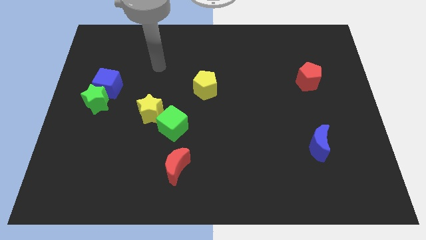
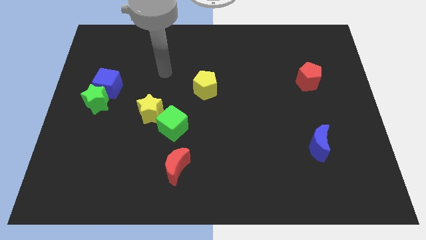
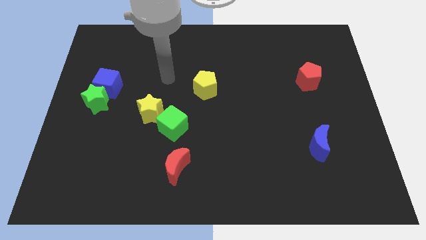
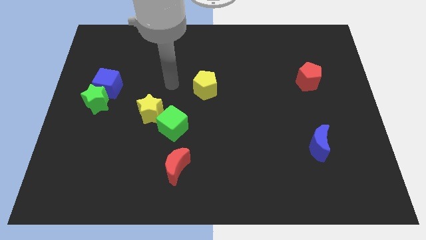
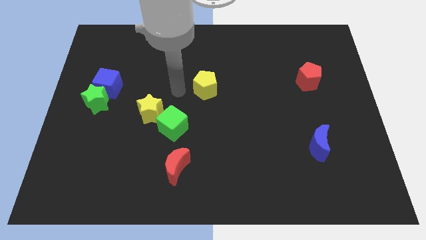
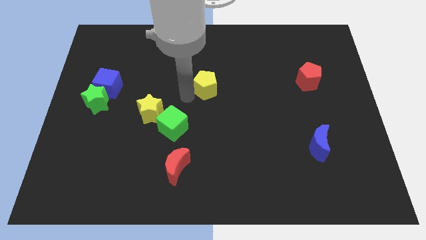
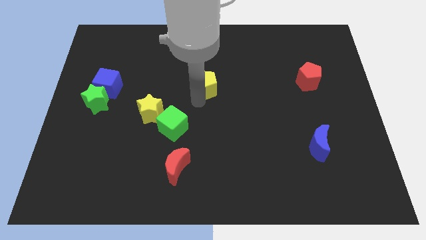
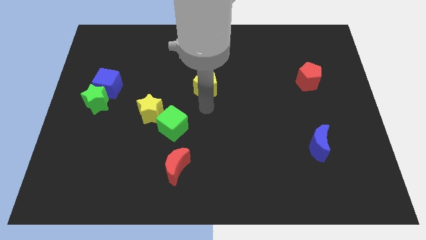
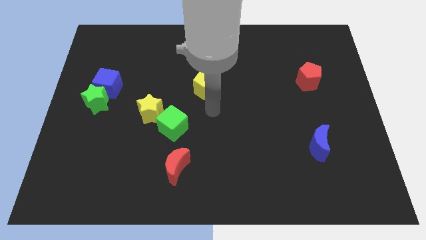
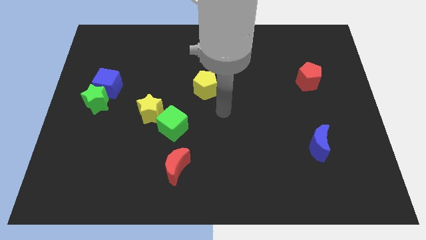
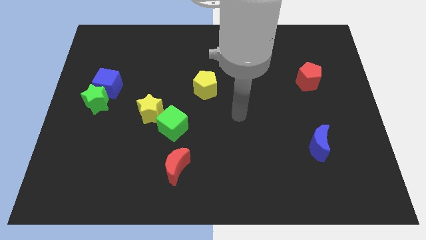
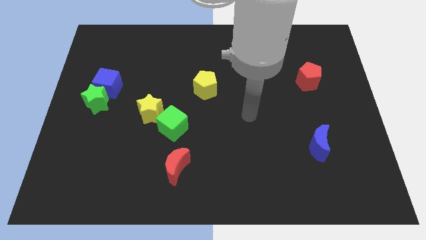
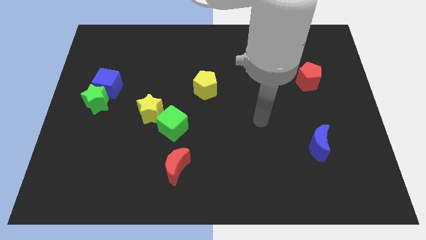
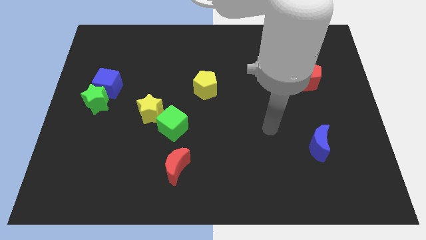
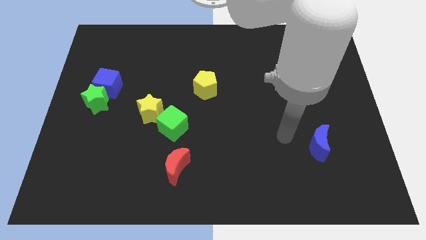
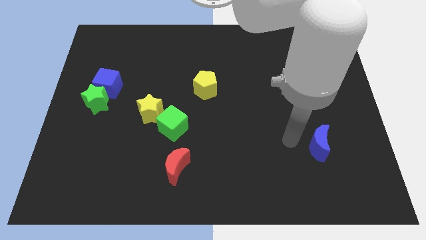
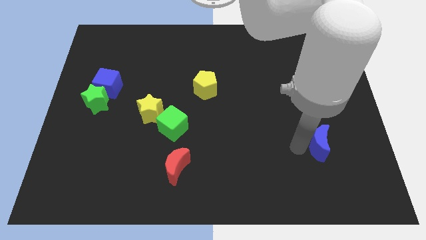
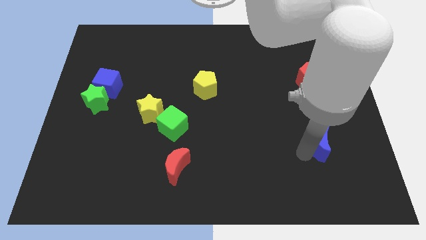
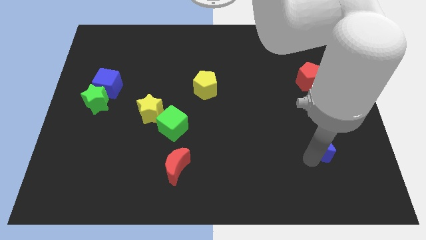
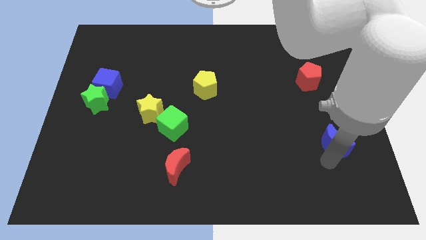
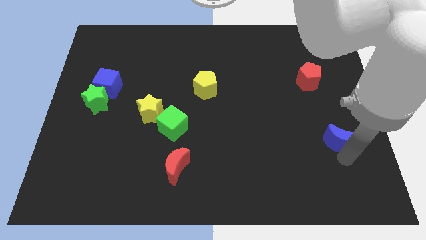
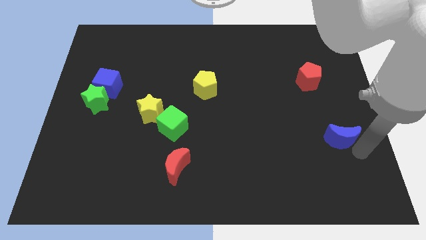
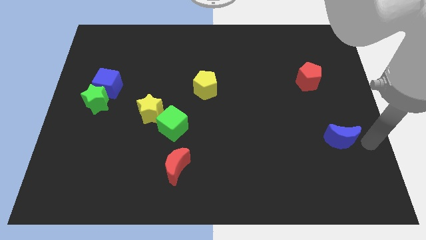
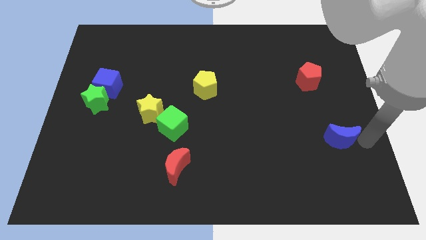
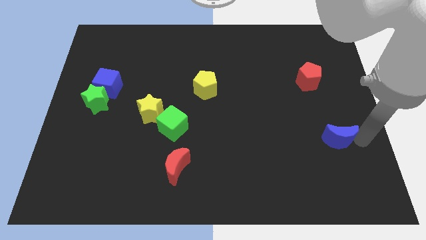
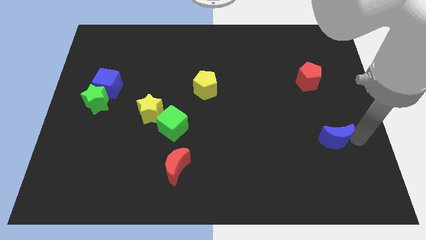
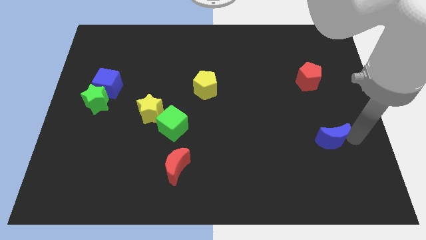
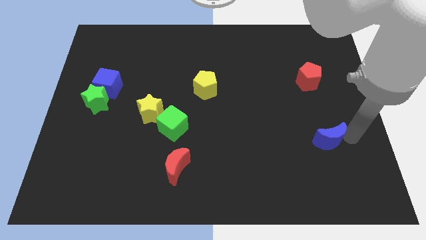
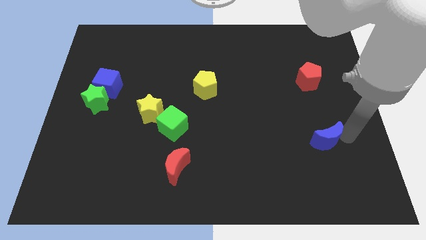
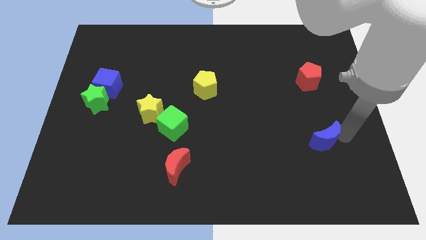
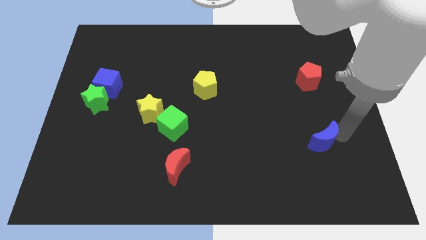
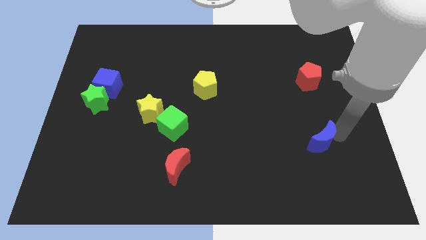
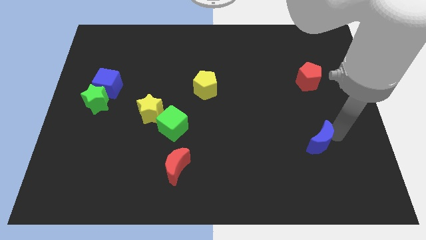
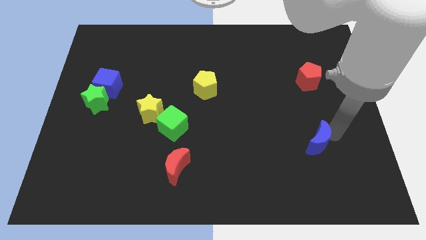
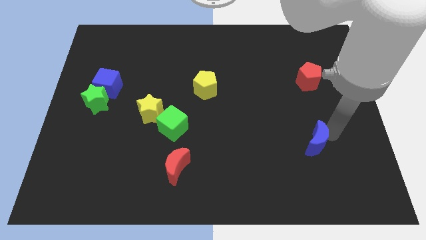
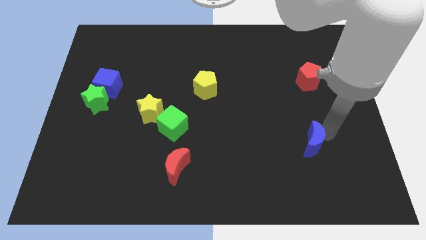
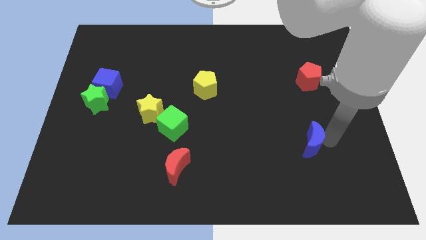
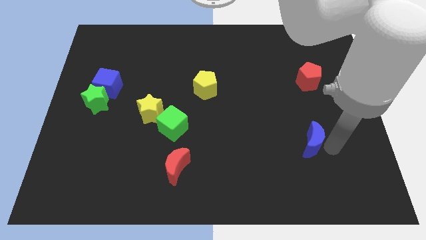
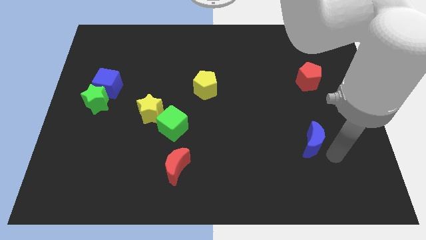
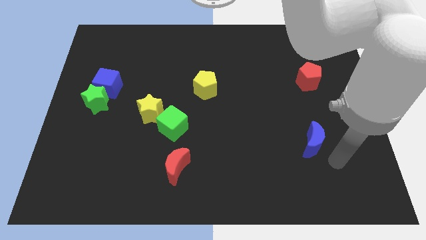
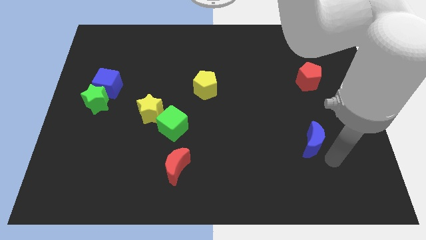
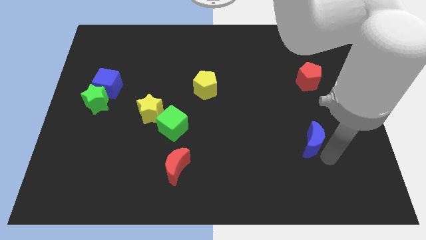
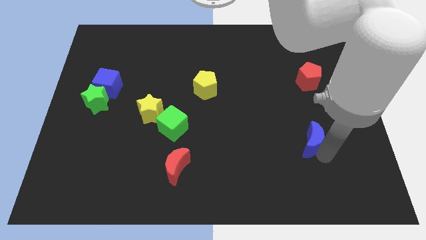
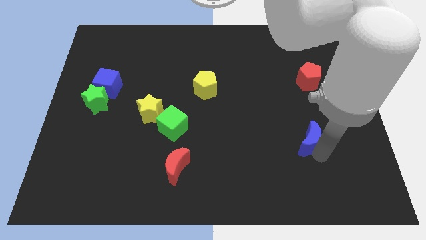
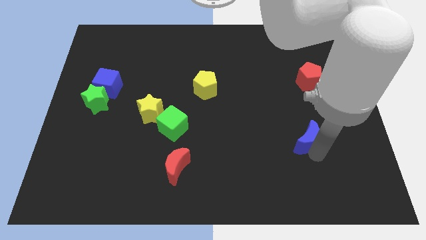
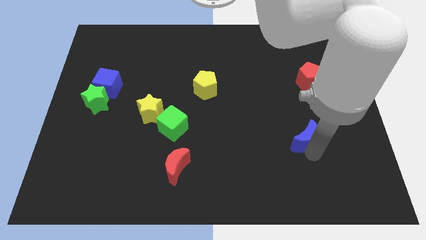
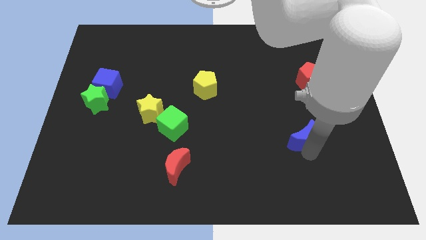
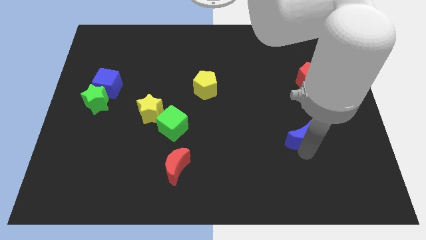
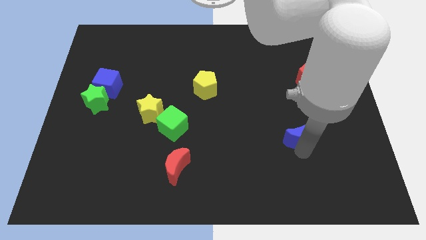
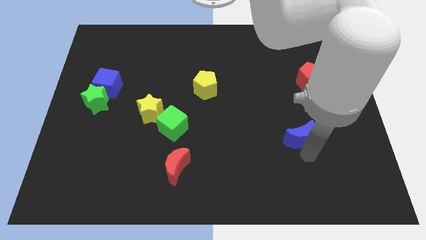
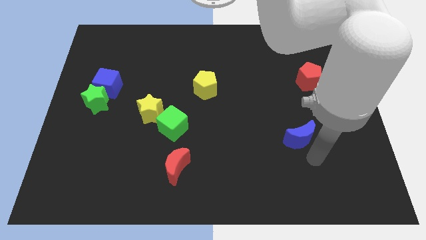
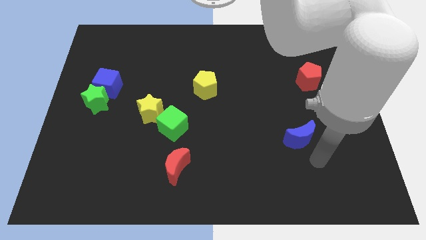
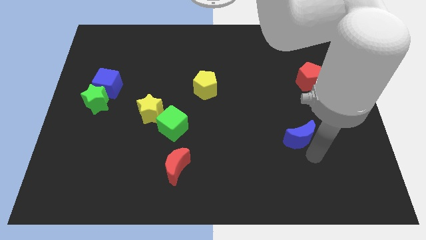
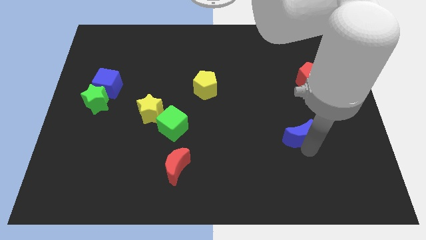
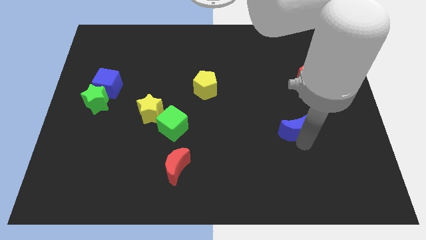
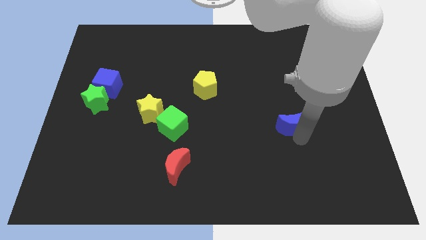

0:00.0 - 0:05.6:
push the blue moon upwards and to the left a little bit

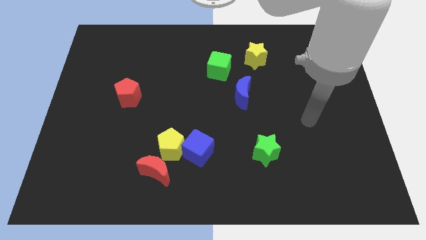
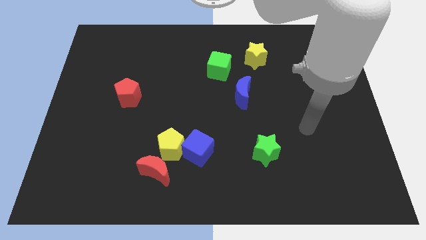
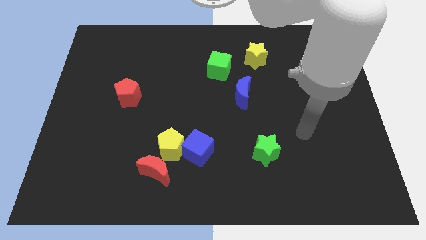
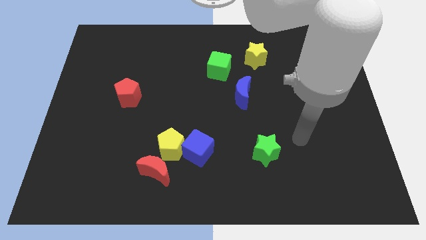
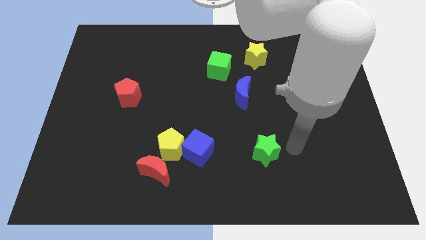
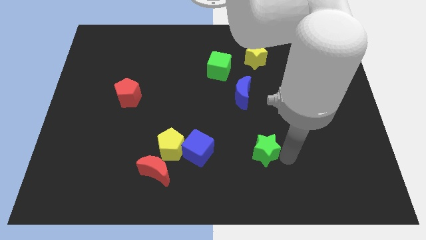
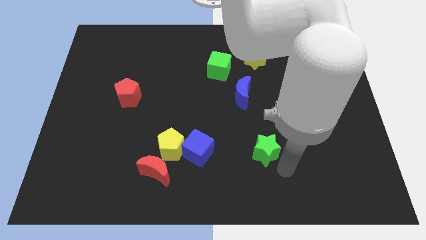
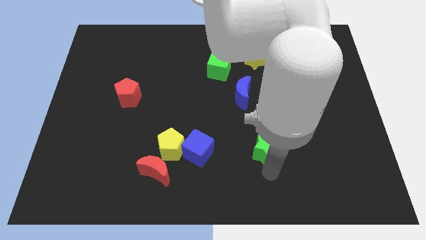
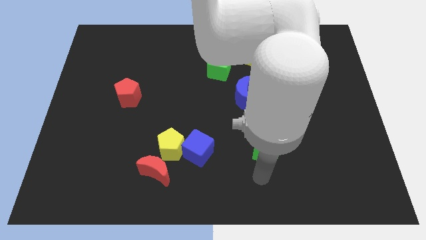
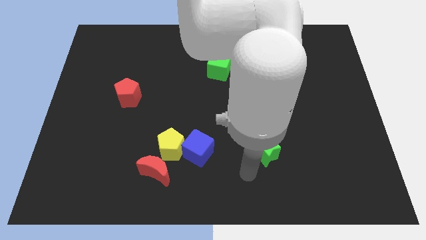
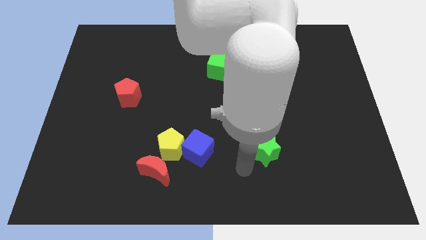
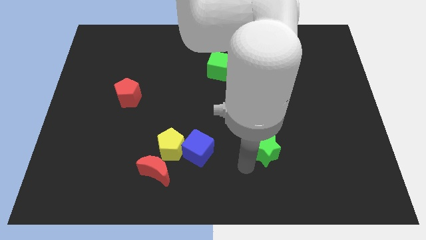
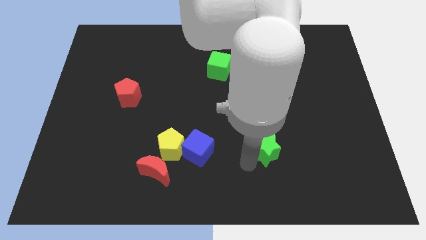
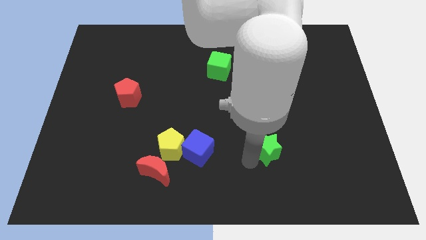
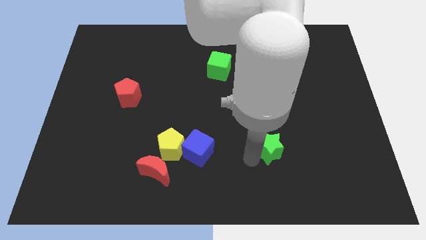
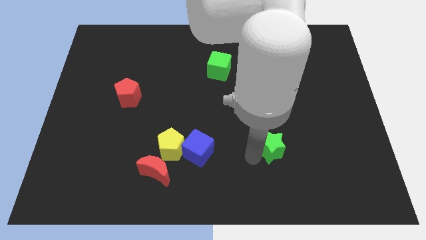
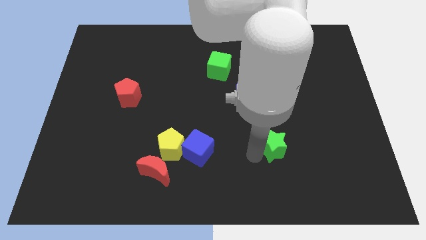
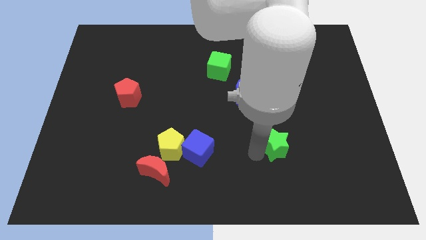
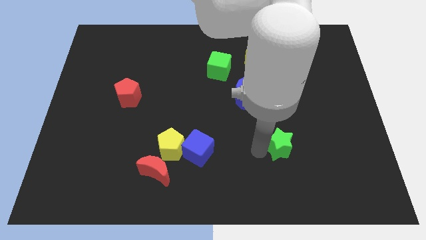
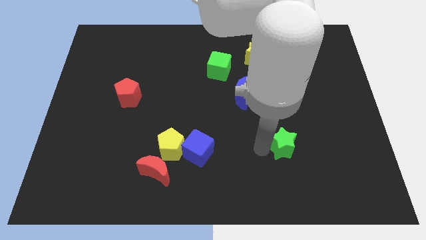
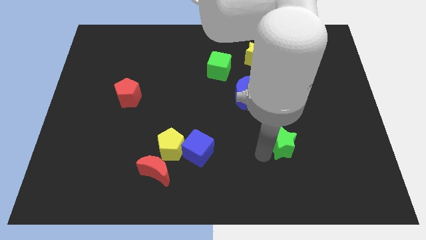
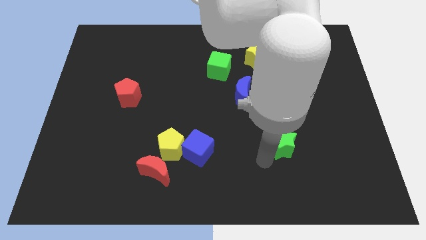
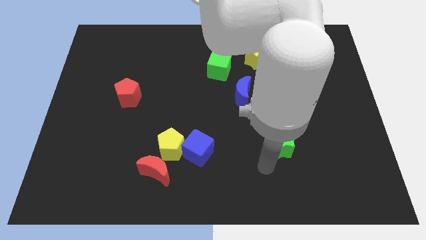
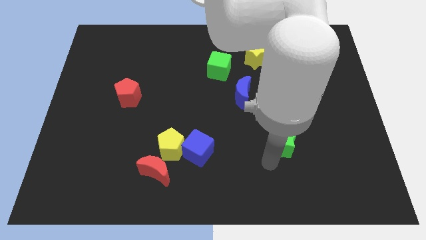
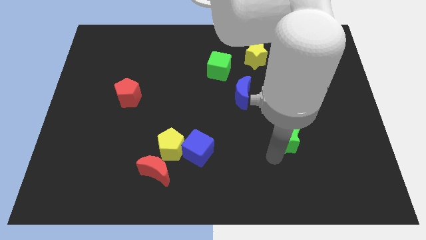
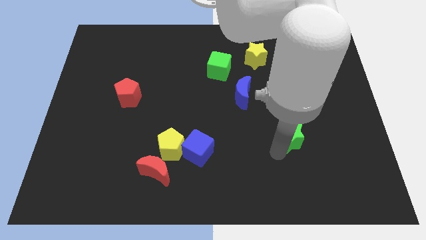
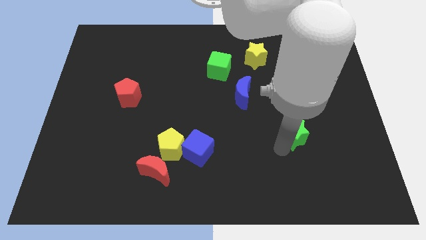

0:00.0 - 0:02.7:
push the green star a bit upwards and then right
